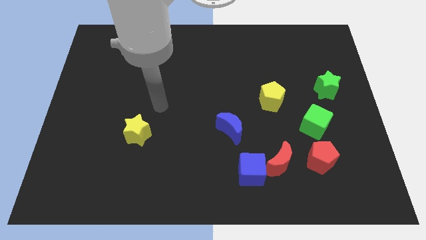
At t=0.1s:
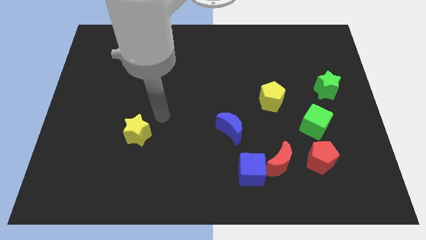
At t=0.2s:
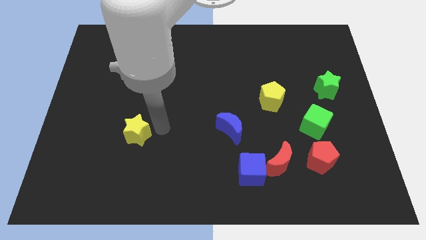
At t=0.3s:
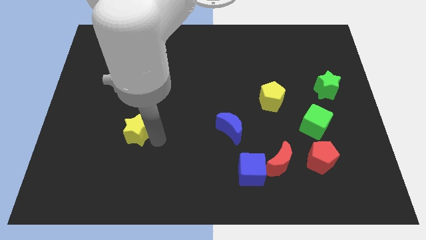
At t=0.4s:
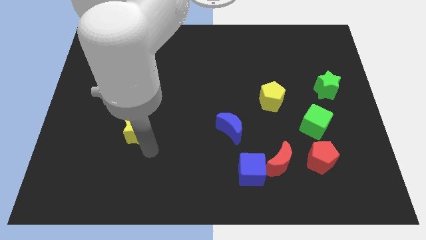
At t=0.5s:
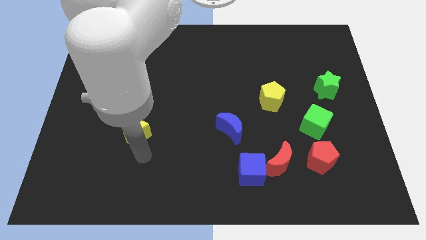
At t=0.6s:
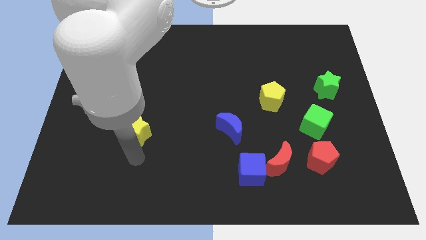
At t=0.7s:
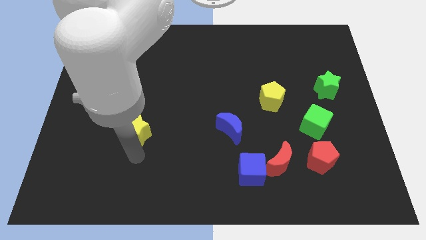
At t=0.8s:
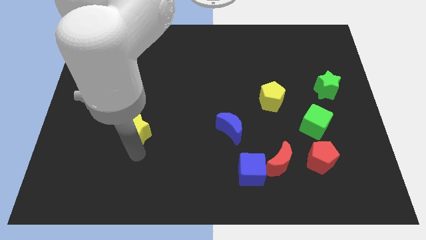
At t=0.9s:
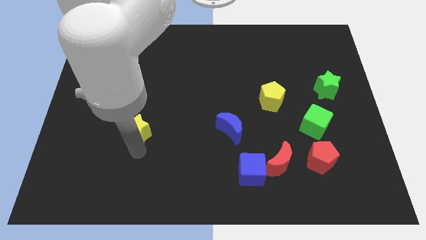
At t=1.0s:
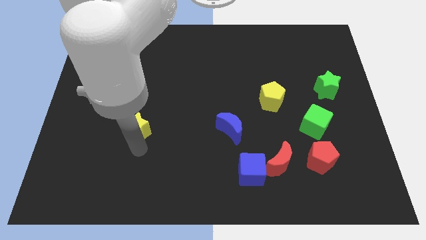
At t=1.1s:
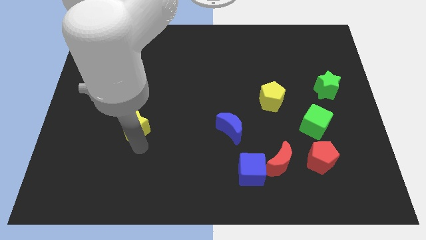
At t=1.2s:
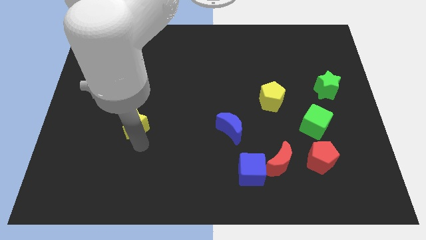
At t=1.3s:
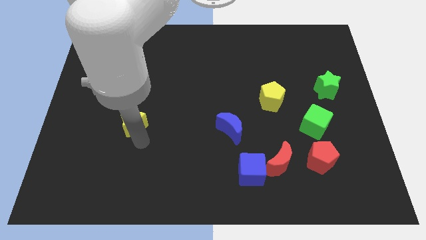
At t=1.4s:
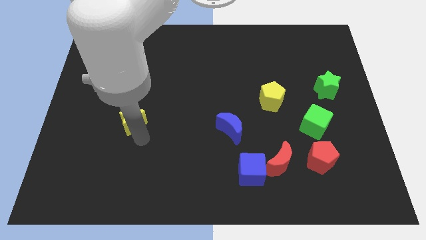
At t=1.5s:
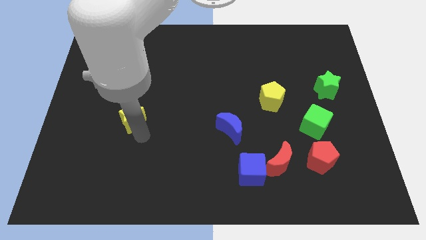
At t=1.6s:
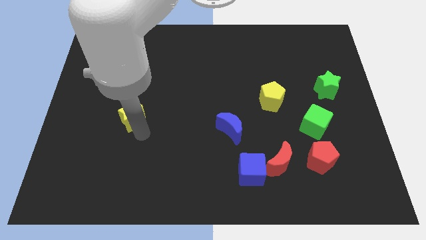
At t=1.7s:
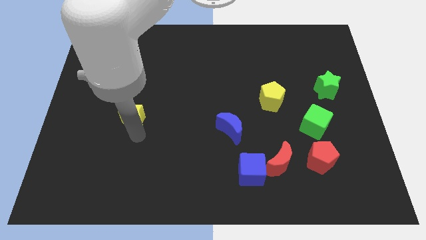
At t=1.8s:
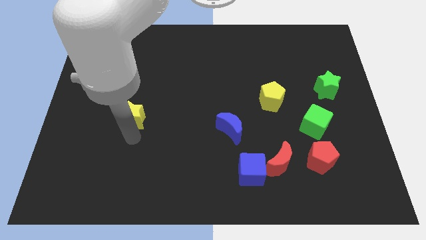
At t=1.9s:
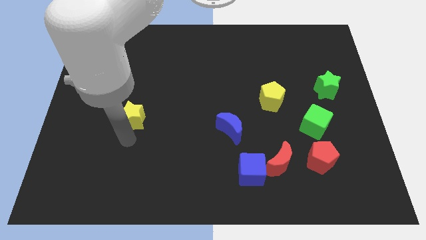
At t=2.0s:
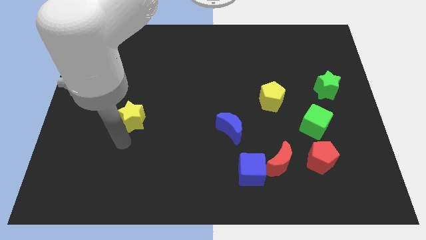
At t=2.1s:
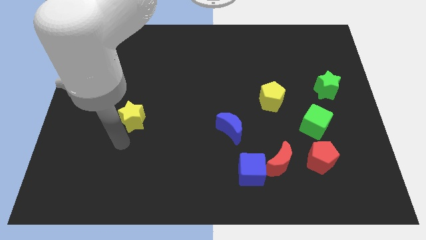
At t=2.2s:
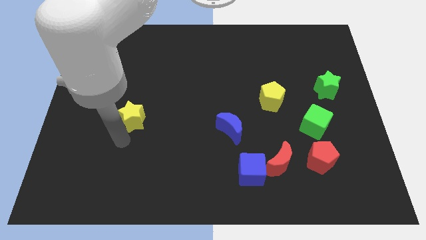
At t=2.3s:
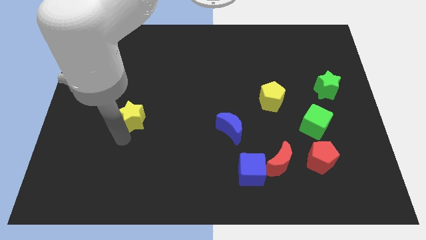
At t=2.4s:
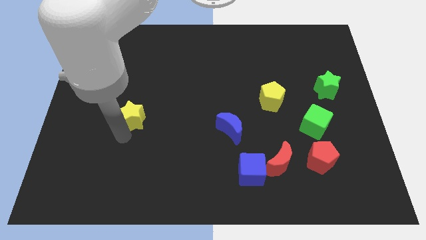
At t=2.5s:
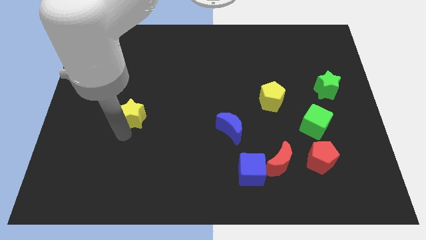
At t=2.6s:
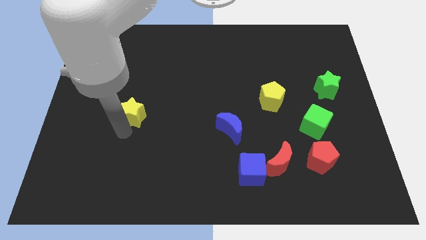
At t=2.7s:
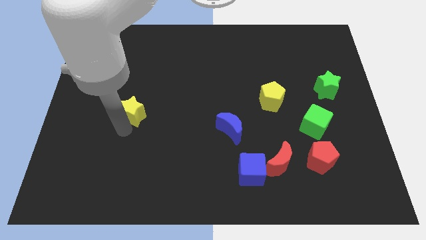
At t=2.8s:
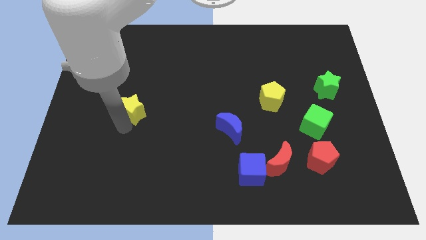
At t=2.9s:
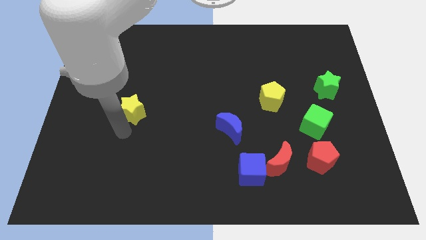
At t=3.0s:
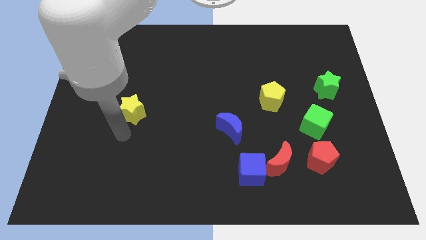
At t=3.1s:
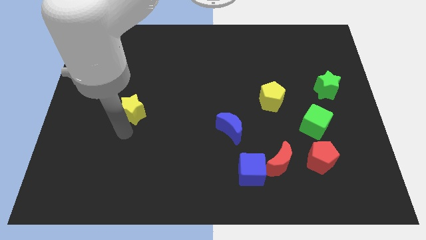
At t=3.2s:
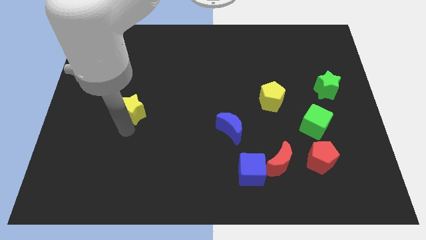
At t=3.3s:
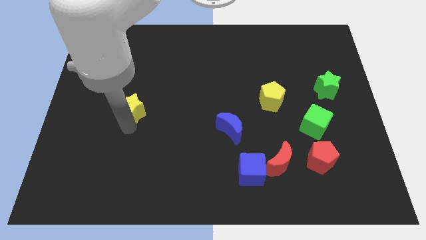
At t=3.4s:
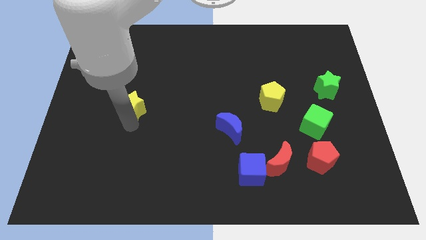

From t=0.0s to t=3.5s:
slide the yellow star up a little

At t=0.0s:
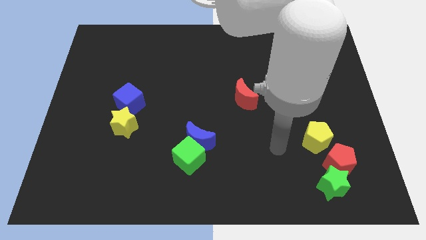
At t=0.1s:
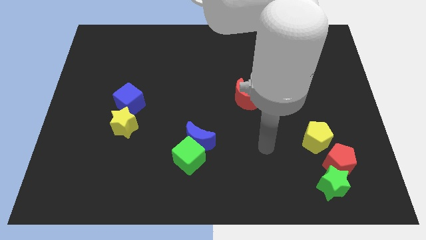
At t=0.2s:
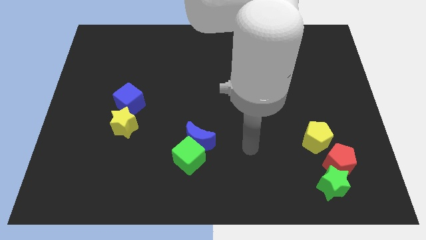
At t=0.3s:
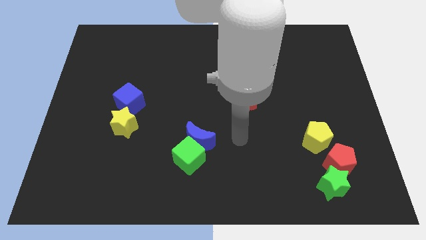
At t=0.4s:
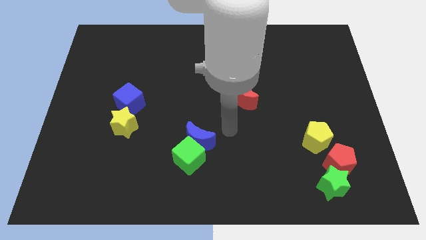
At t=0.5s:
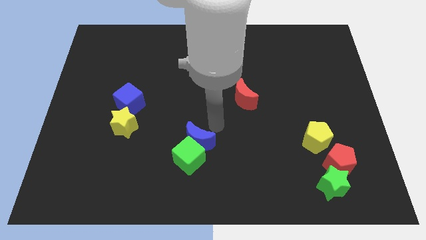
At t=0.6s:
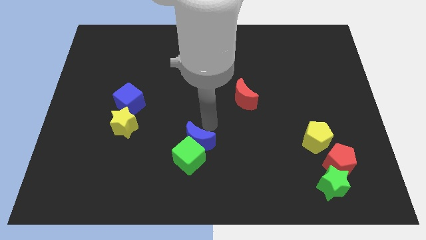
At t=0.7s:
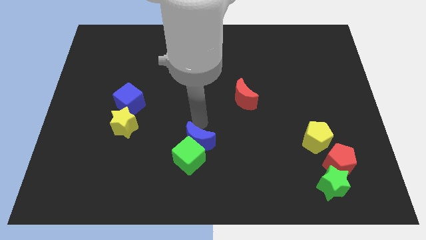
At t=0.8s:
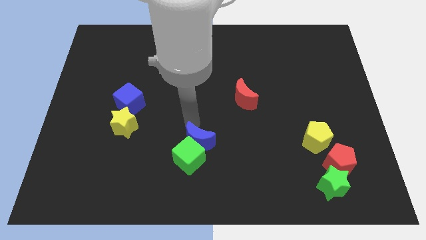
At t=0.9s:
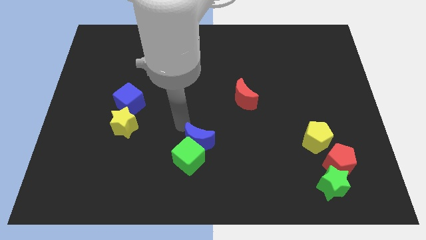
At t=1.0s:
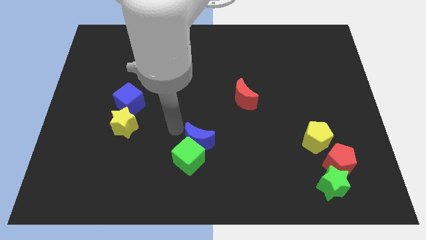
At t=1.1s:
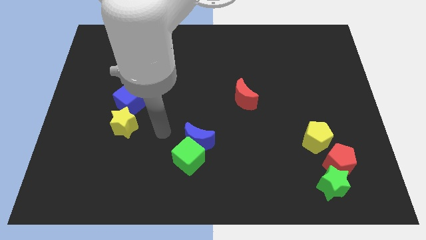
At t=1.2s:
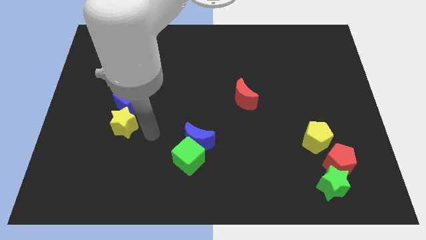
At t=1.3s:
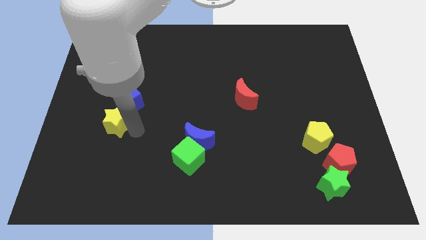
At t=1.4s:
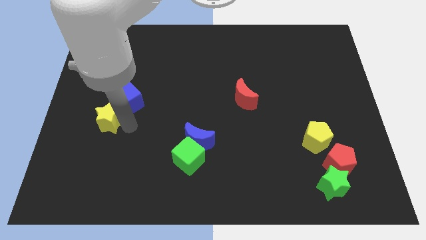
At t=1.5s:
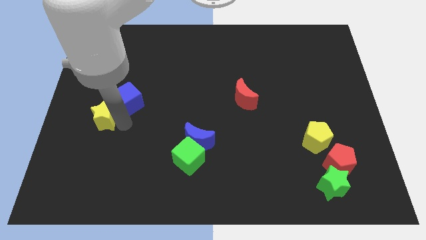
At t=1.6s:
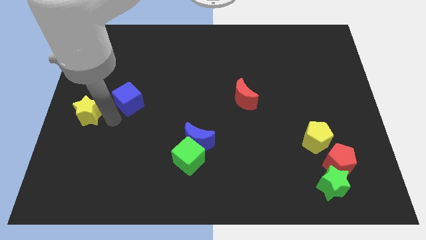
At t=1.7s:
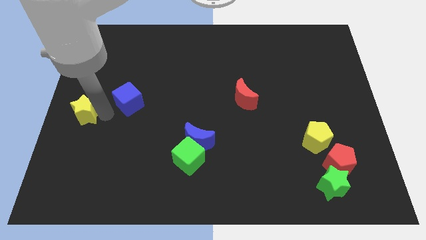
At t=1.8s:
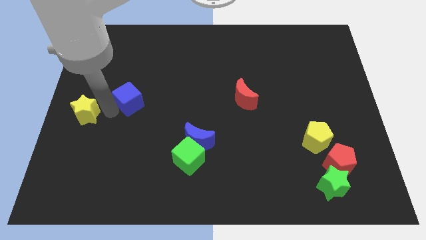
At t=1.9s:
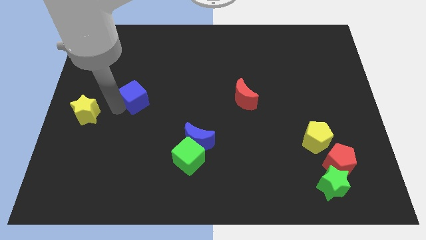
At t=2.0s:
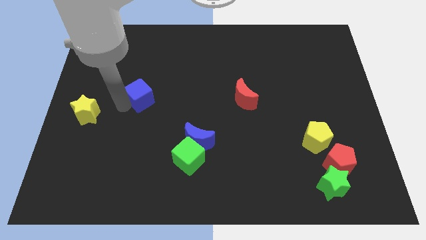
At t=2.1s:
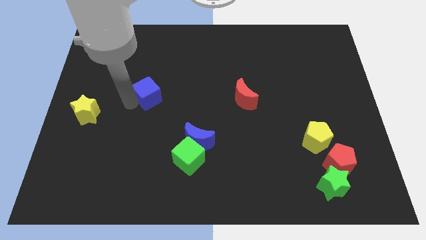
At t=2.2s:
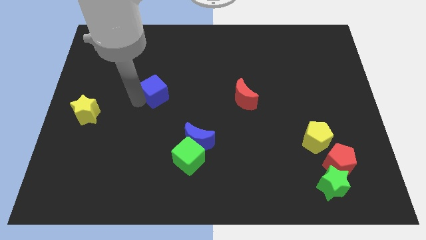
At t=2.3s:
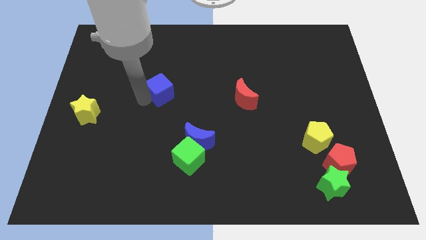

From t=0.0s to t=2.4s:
move the blue cube upwards and then right a little bit

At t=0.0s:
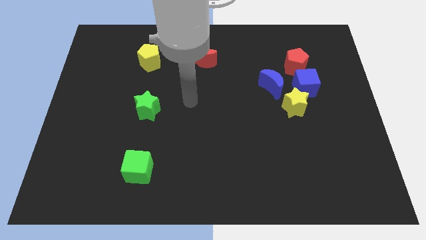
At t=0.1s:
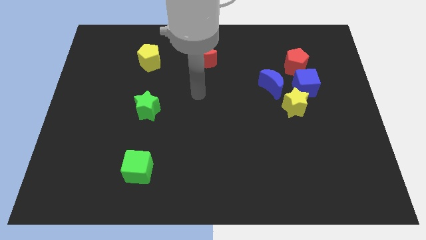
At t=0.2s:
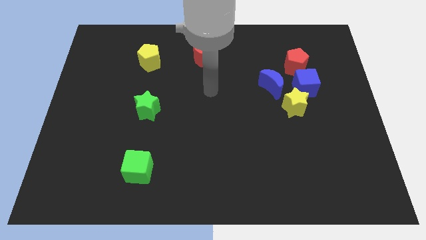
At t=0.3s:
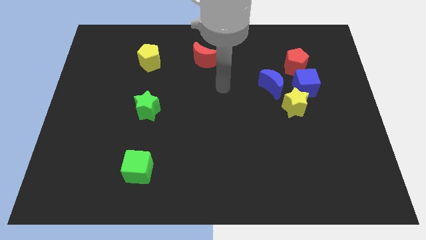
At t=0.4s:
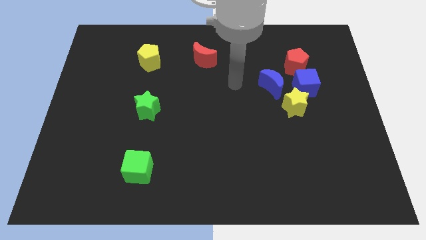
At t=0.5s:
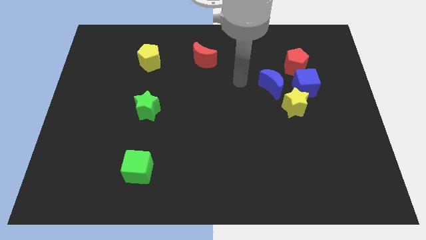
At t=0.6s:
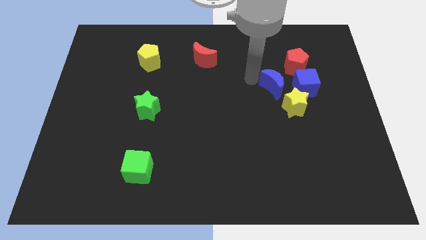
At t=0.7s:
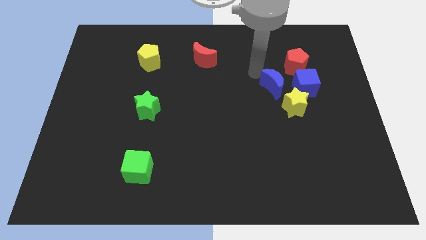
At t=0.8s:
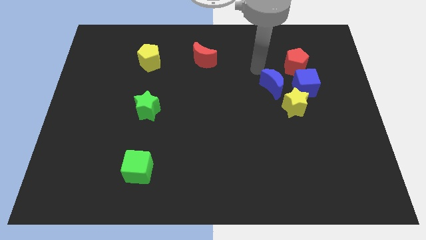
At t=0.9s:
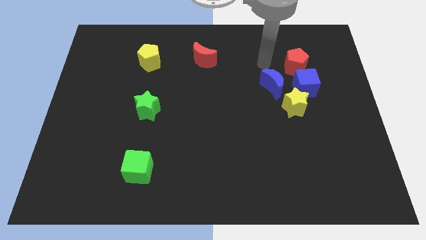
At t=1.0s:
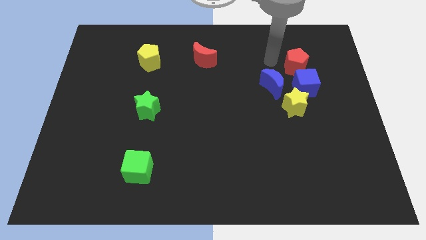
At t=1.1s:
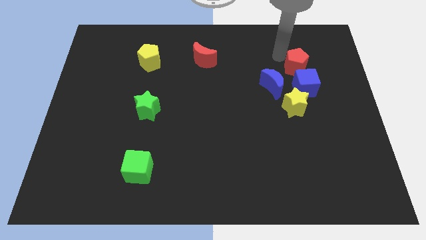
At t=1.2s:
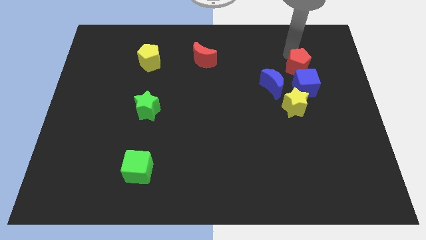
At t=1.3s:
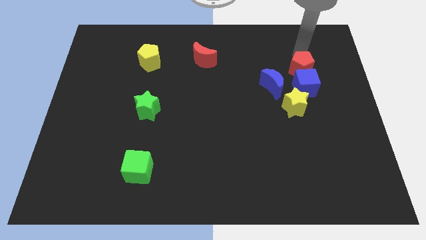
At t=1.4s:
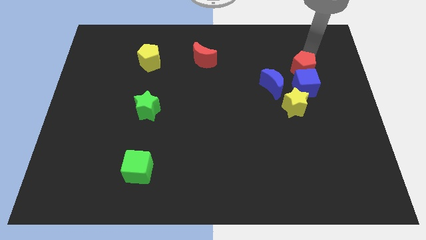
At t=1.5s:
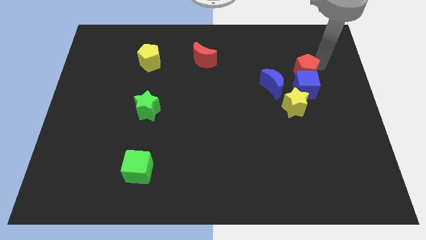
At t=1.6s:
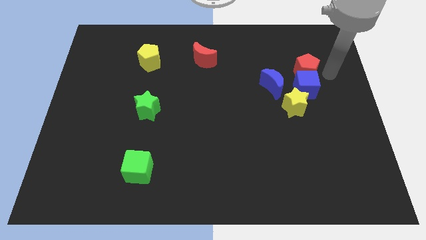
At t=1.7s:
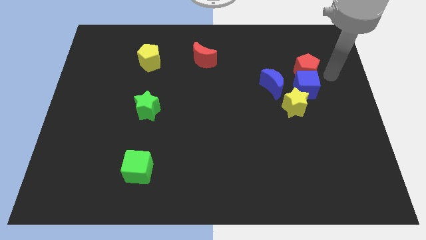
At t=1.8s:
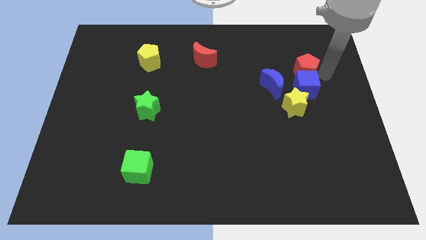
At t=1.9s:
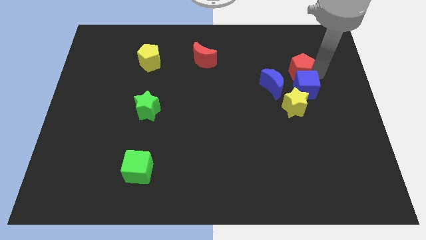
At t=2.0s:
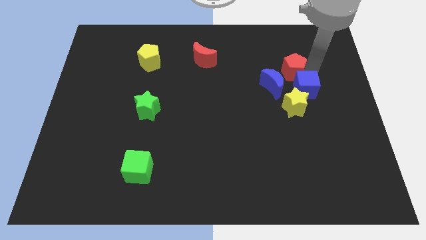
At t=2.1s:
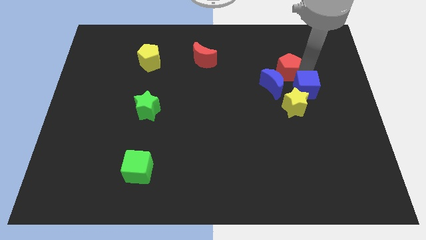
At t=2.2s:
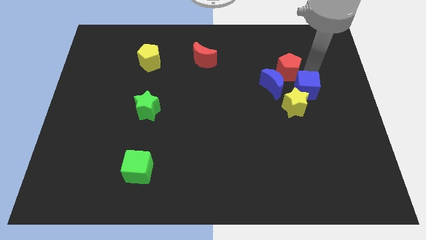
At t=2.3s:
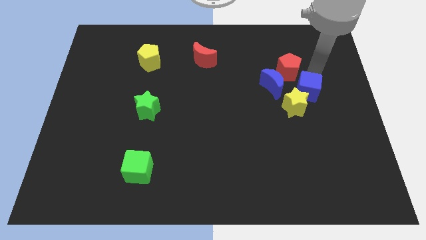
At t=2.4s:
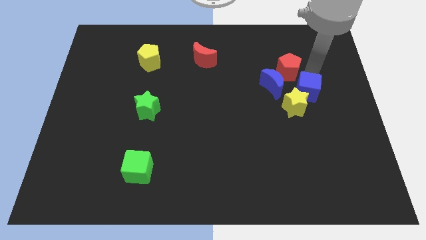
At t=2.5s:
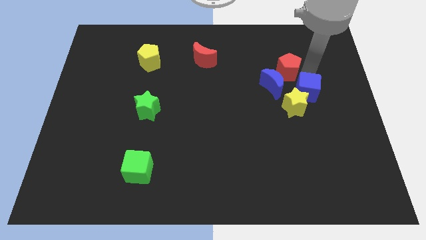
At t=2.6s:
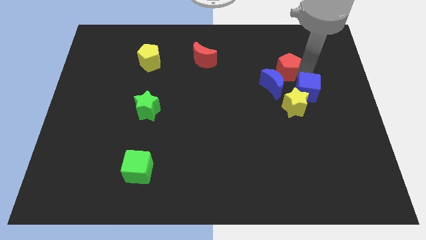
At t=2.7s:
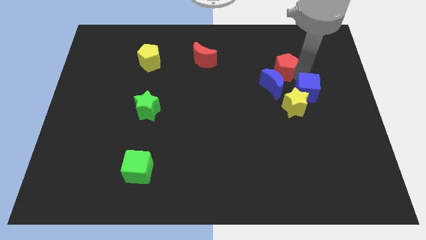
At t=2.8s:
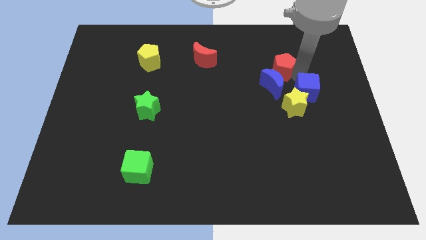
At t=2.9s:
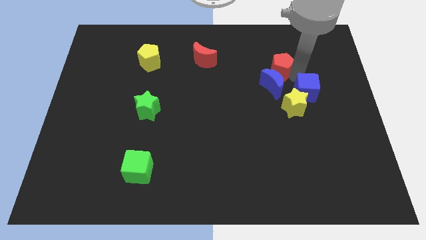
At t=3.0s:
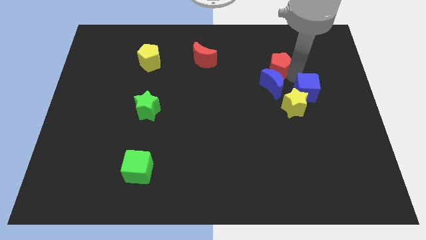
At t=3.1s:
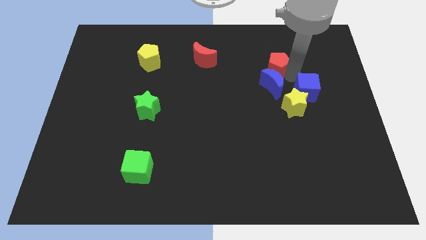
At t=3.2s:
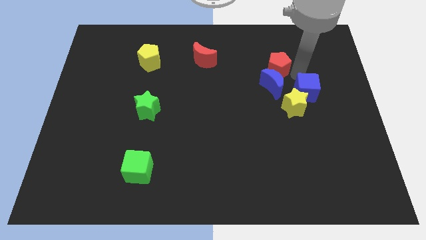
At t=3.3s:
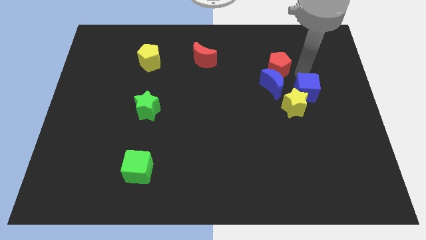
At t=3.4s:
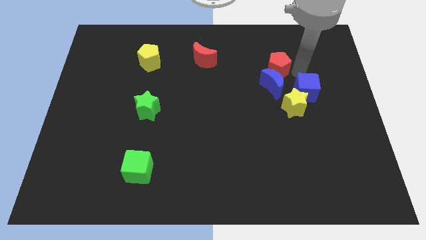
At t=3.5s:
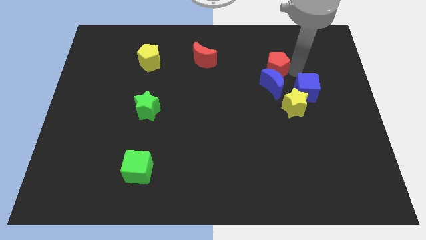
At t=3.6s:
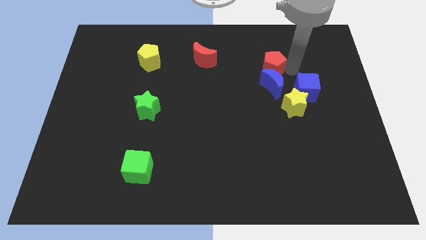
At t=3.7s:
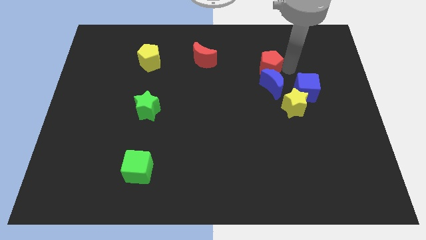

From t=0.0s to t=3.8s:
slightly move the red pentagon left
